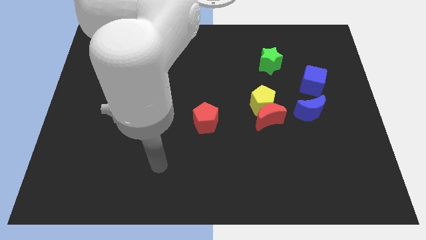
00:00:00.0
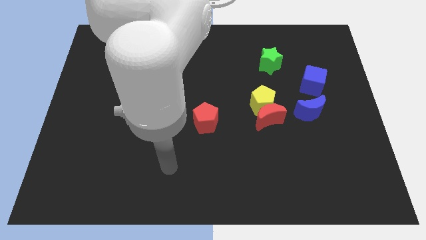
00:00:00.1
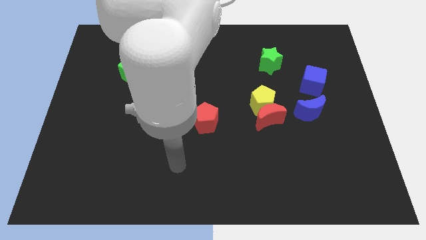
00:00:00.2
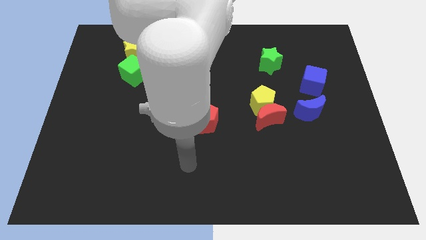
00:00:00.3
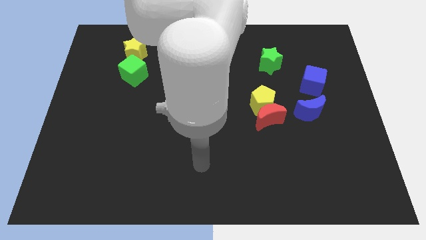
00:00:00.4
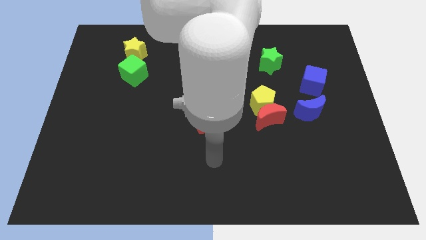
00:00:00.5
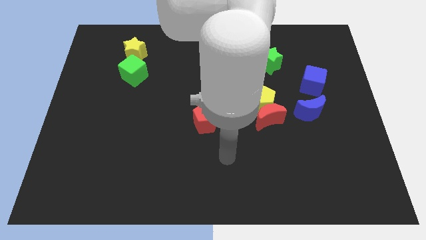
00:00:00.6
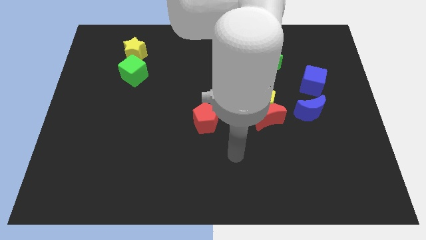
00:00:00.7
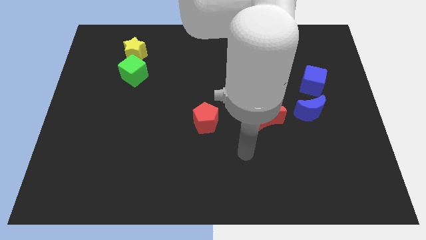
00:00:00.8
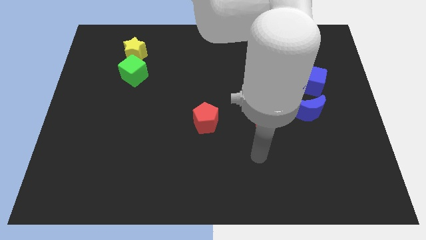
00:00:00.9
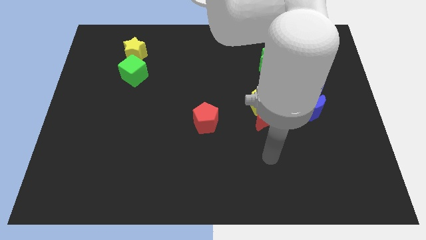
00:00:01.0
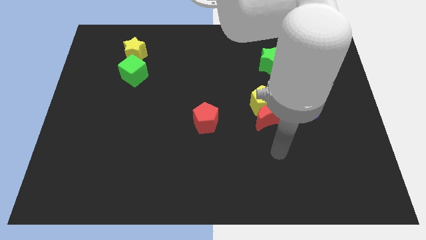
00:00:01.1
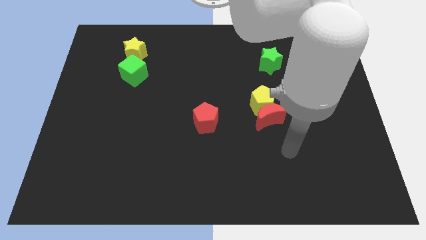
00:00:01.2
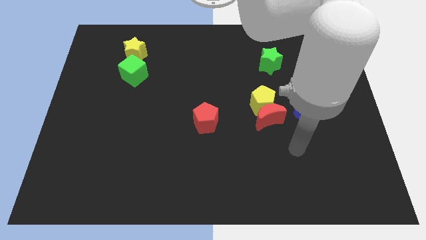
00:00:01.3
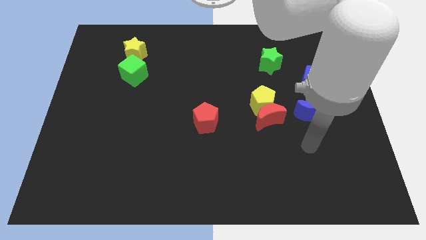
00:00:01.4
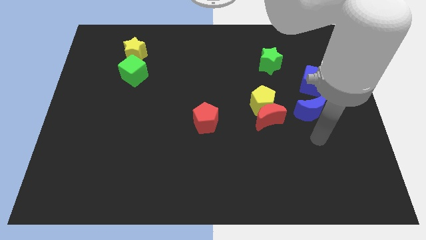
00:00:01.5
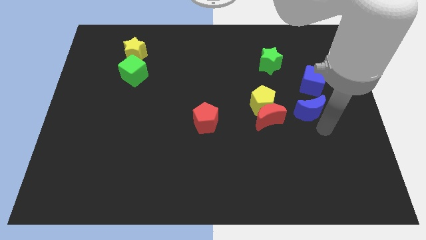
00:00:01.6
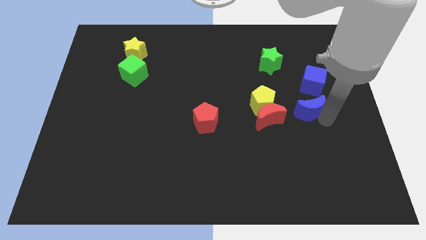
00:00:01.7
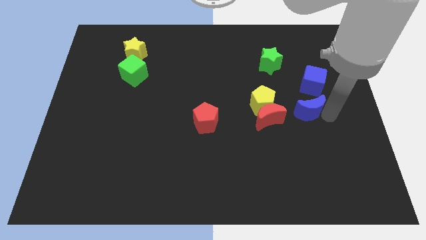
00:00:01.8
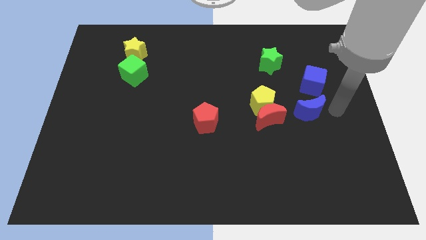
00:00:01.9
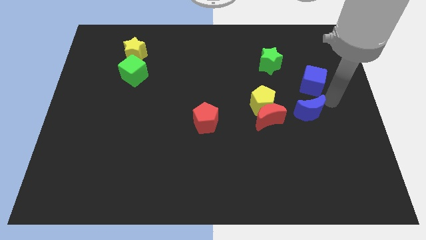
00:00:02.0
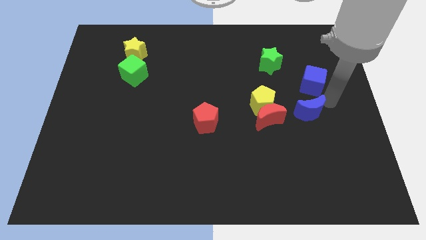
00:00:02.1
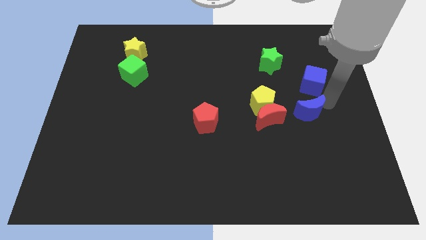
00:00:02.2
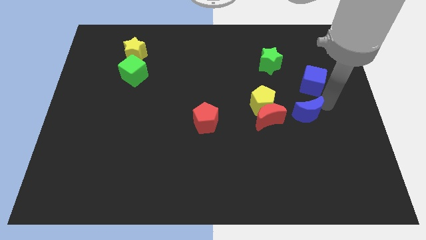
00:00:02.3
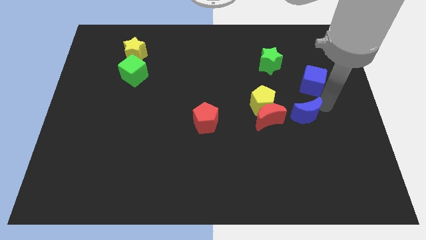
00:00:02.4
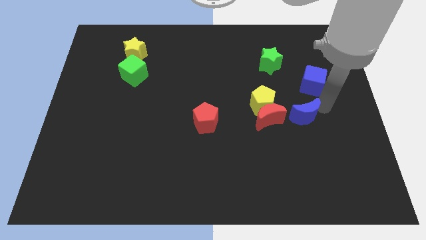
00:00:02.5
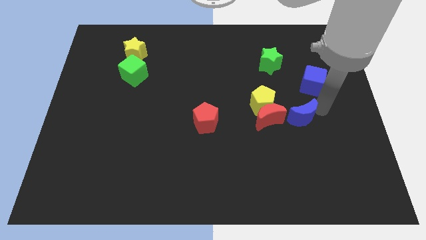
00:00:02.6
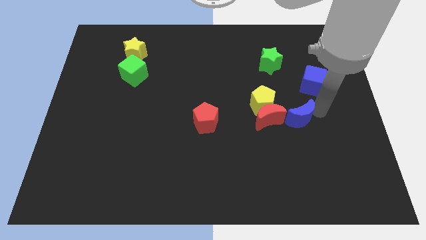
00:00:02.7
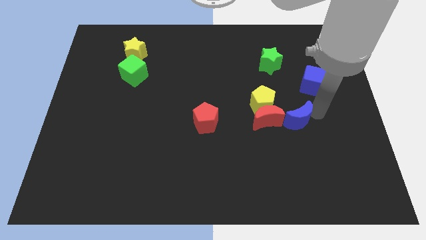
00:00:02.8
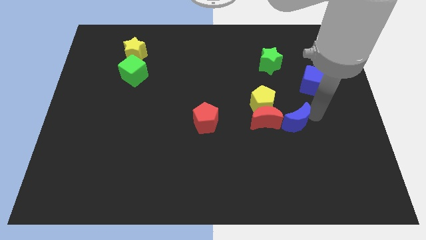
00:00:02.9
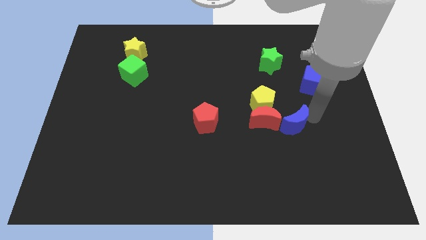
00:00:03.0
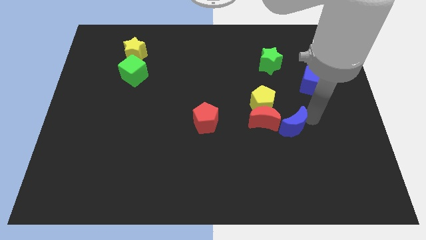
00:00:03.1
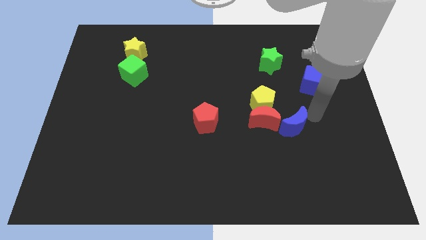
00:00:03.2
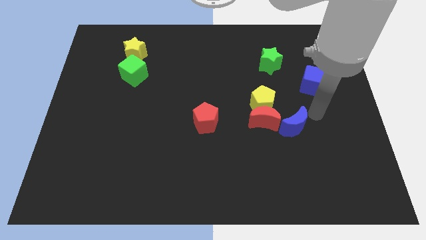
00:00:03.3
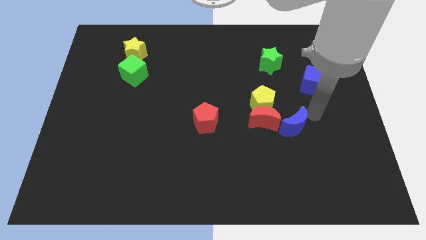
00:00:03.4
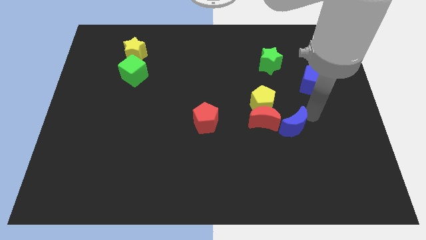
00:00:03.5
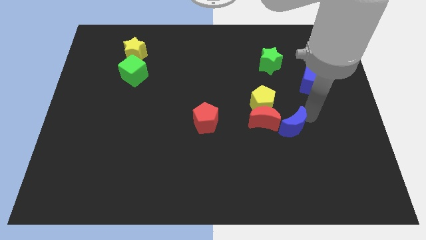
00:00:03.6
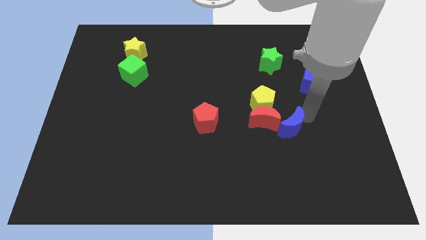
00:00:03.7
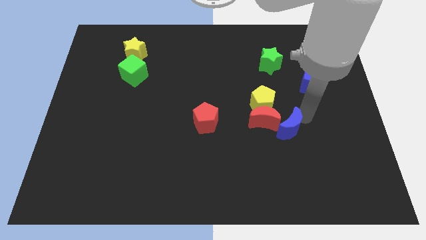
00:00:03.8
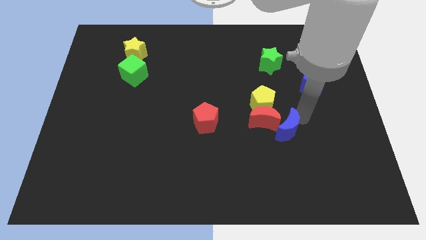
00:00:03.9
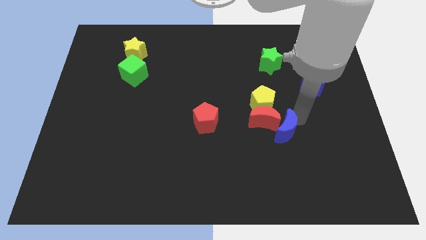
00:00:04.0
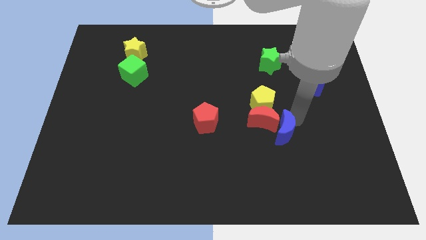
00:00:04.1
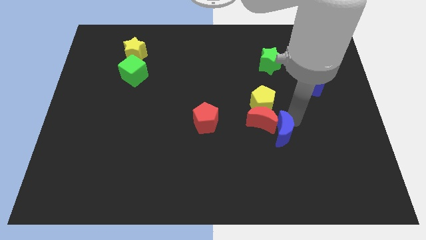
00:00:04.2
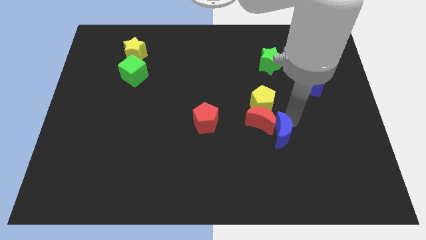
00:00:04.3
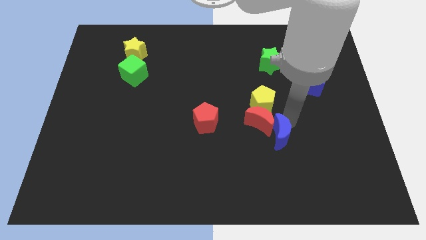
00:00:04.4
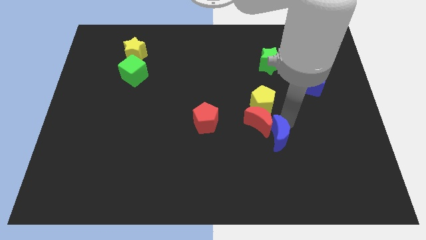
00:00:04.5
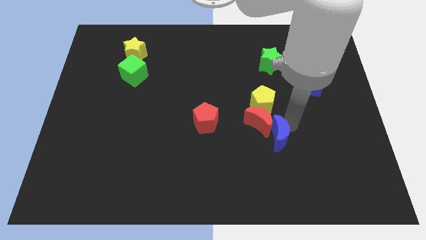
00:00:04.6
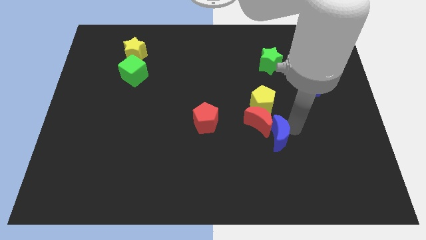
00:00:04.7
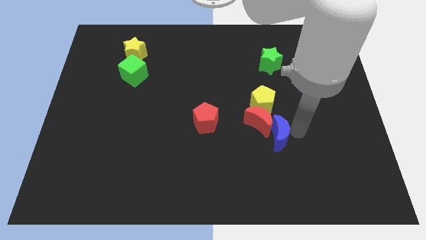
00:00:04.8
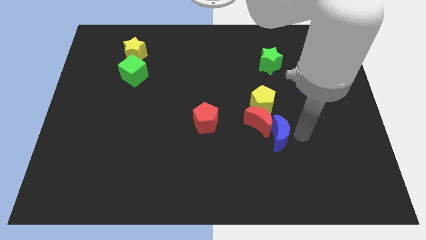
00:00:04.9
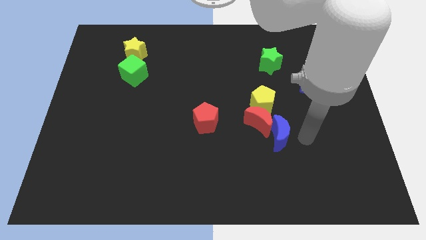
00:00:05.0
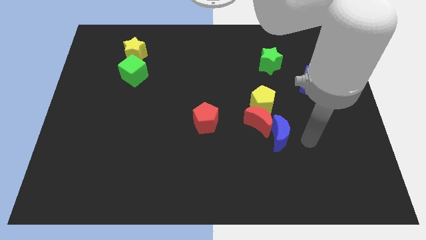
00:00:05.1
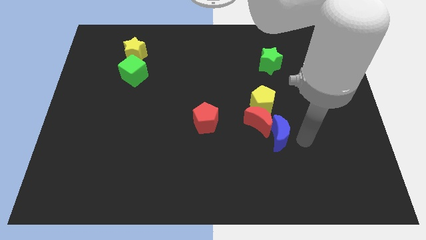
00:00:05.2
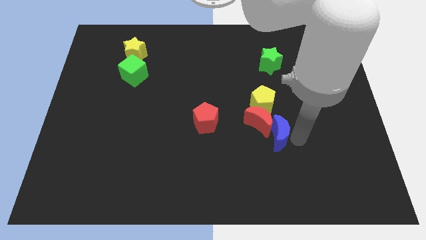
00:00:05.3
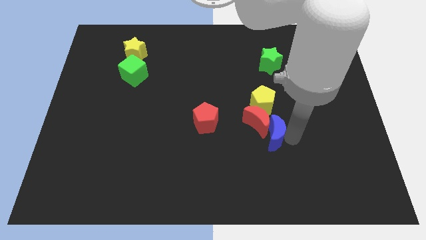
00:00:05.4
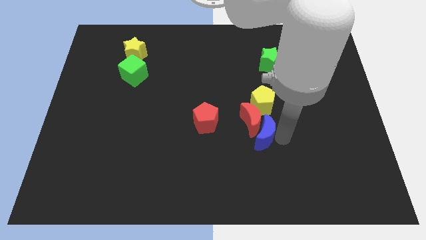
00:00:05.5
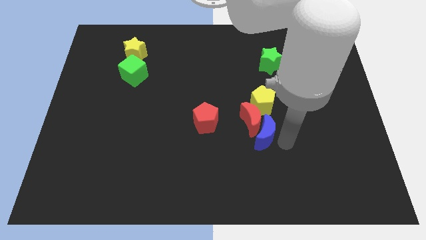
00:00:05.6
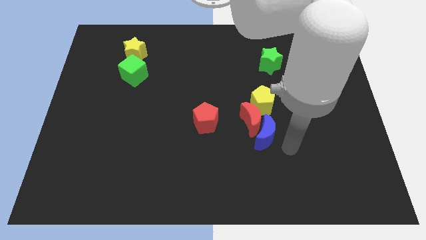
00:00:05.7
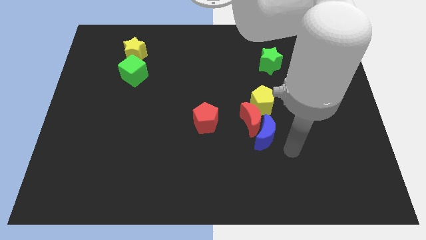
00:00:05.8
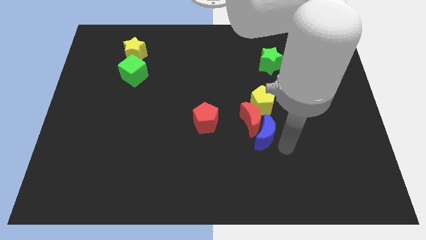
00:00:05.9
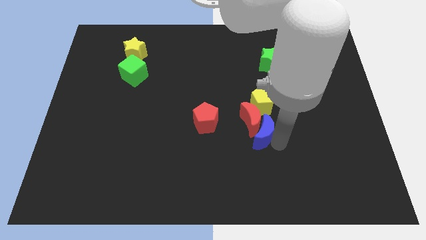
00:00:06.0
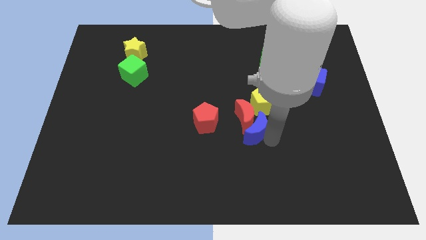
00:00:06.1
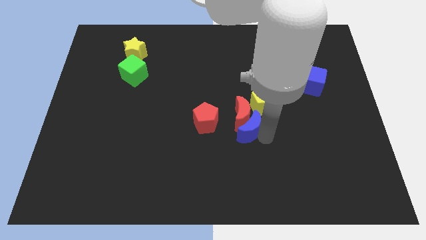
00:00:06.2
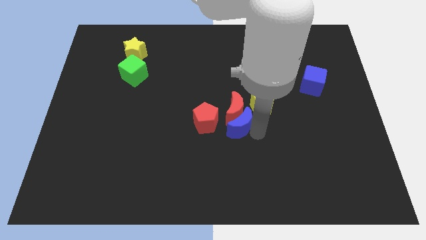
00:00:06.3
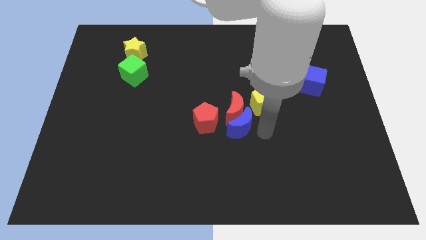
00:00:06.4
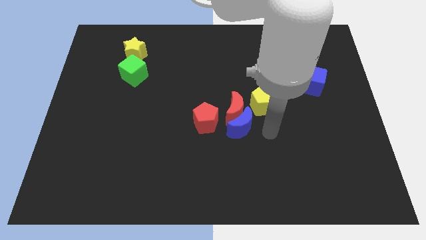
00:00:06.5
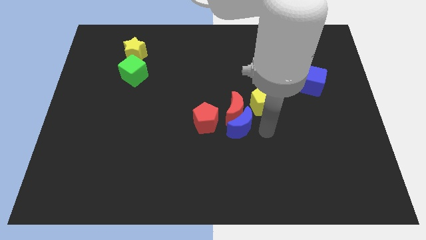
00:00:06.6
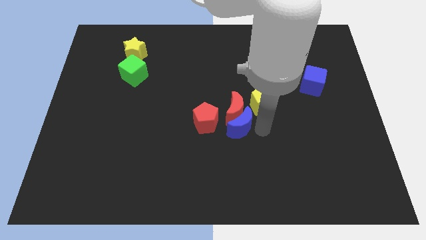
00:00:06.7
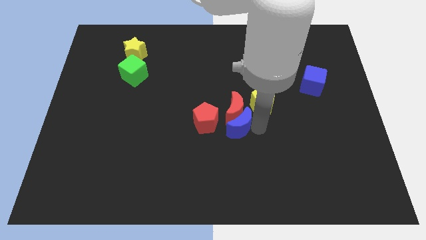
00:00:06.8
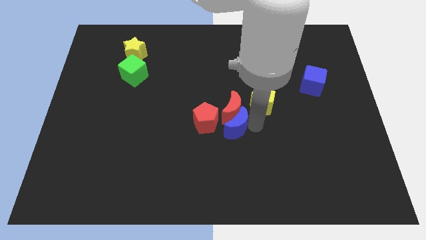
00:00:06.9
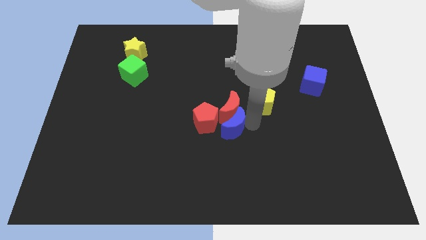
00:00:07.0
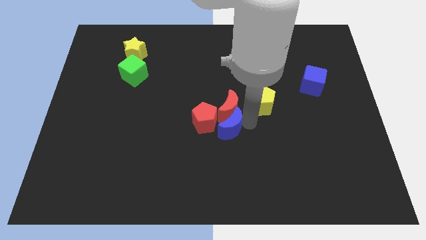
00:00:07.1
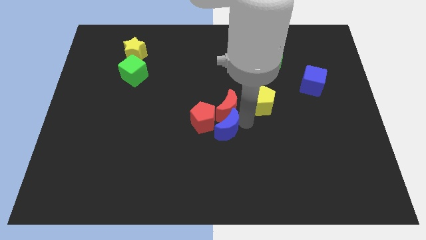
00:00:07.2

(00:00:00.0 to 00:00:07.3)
put the blue moon close to the red pentagon

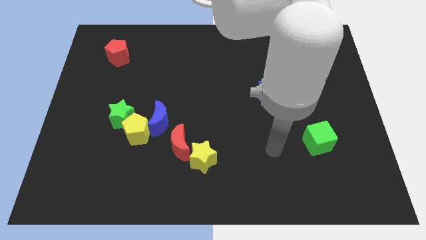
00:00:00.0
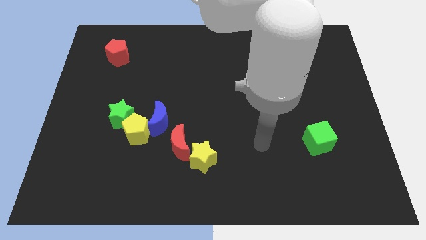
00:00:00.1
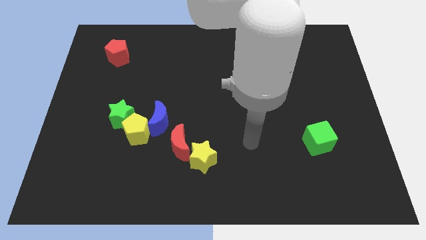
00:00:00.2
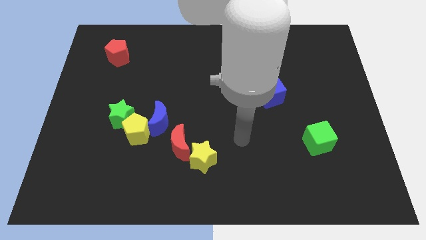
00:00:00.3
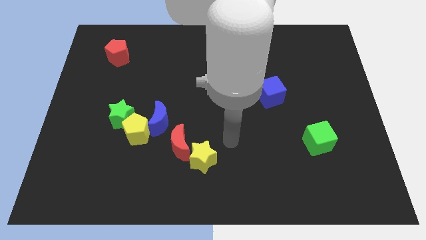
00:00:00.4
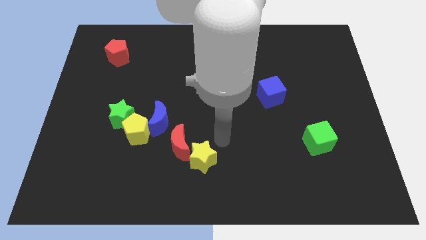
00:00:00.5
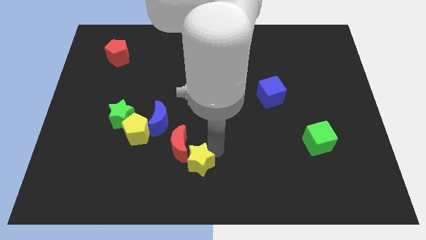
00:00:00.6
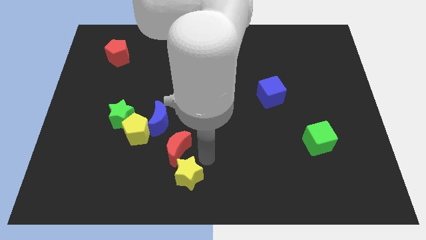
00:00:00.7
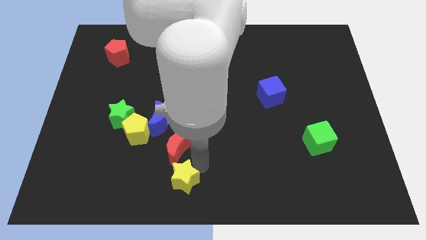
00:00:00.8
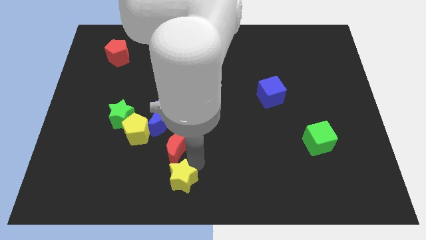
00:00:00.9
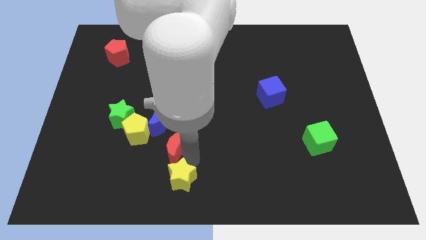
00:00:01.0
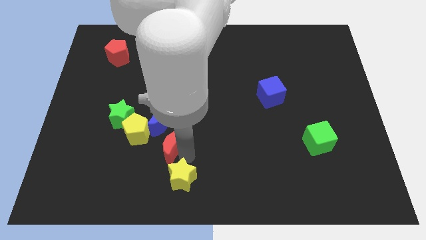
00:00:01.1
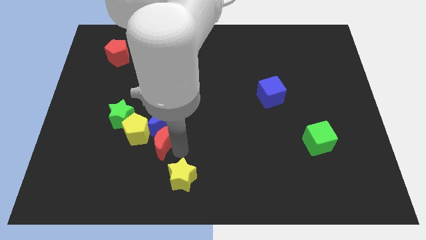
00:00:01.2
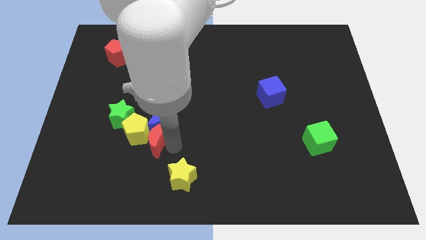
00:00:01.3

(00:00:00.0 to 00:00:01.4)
push the red moon towards the yellow pentagon
